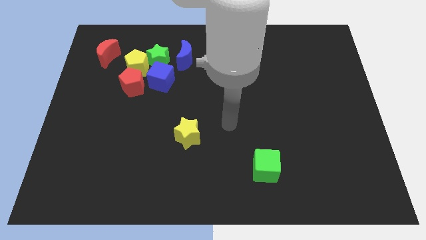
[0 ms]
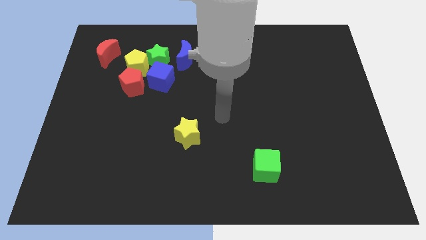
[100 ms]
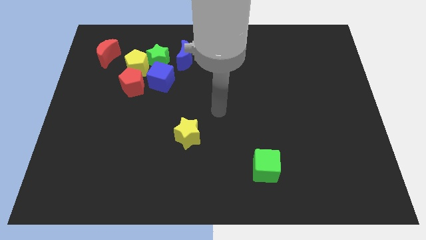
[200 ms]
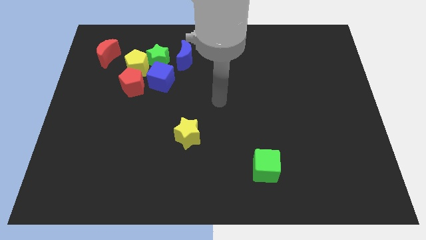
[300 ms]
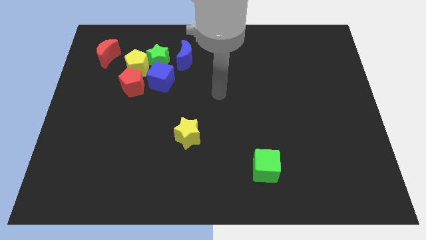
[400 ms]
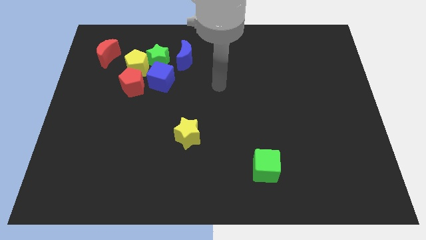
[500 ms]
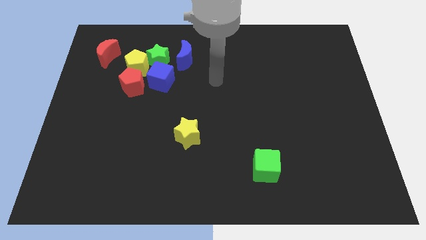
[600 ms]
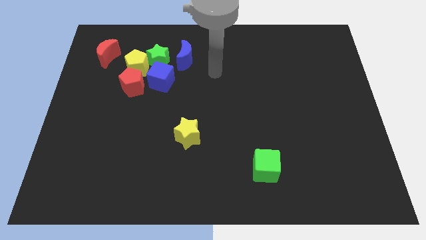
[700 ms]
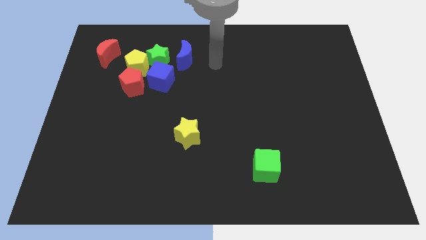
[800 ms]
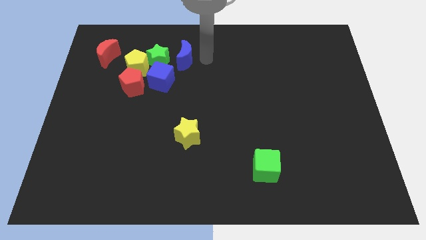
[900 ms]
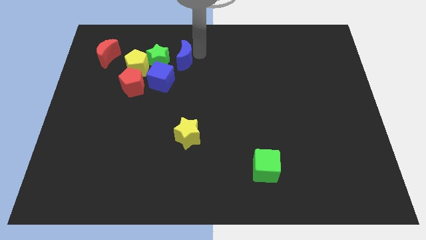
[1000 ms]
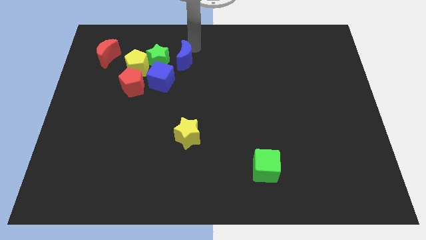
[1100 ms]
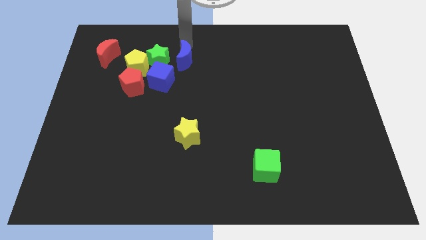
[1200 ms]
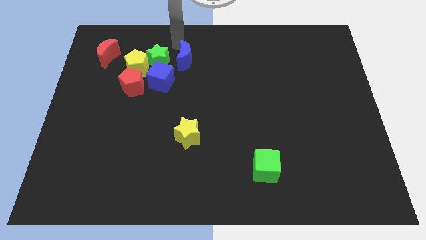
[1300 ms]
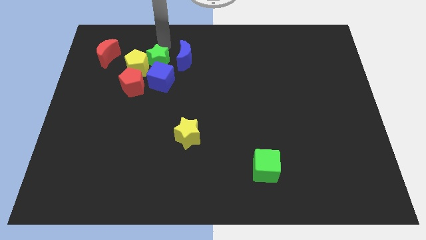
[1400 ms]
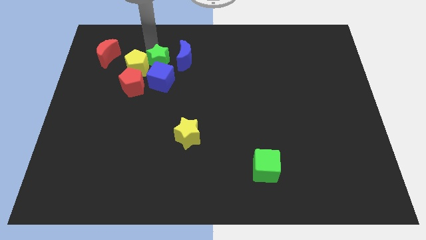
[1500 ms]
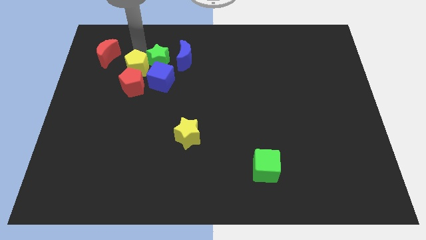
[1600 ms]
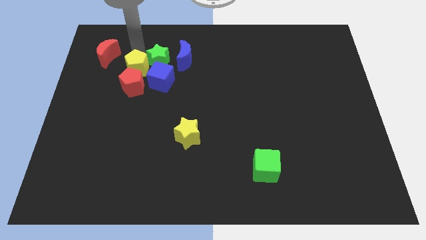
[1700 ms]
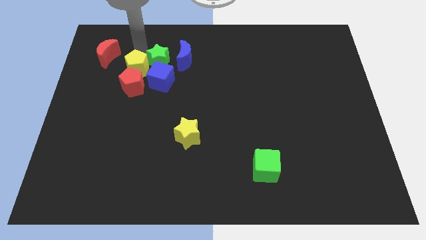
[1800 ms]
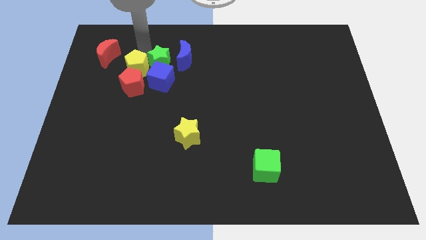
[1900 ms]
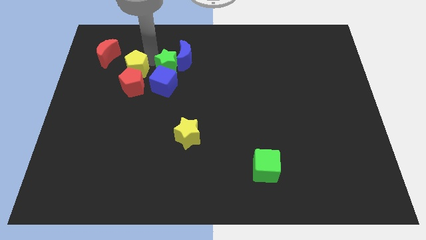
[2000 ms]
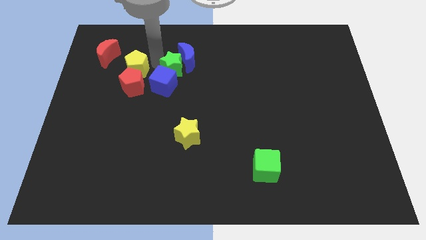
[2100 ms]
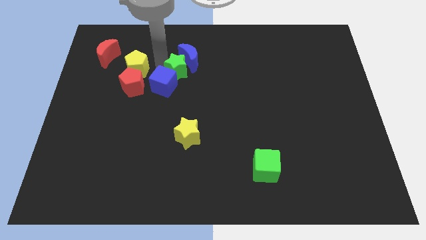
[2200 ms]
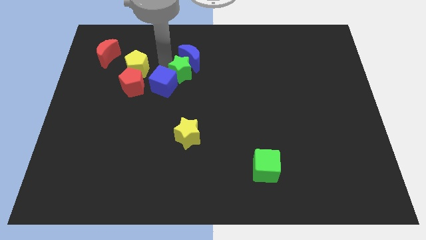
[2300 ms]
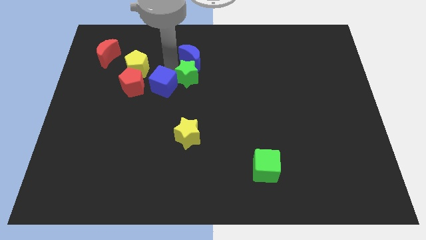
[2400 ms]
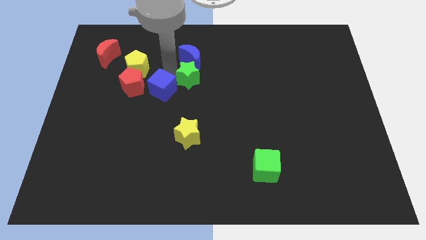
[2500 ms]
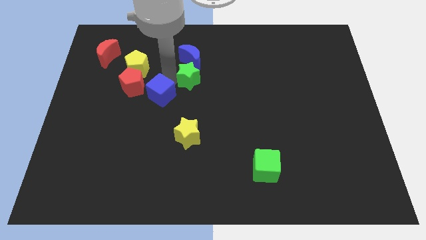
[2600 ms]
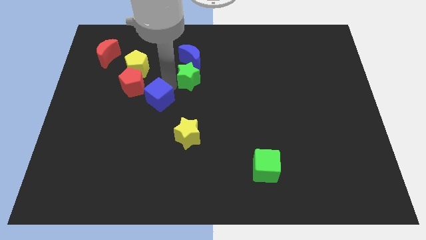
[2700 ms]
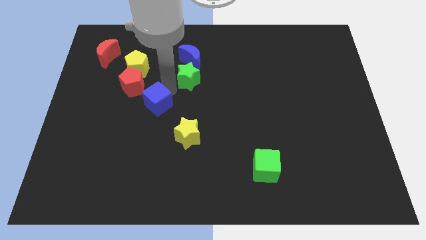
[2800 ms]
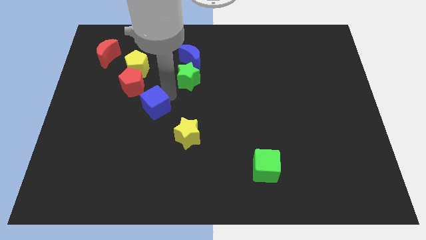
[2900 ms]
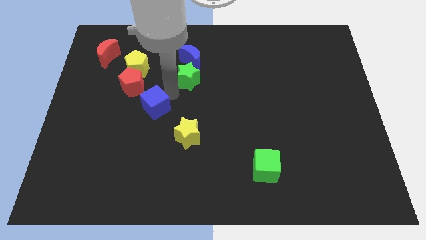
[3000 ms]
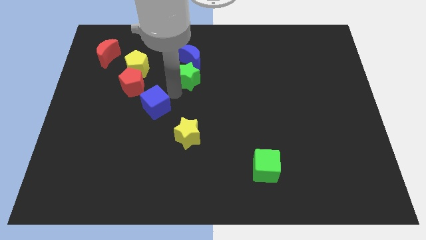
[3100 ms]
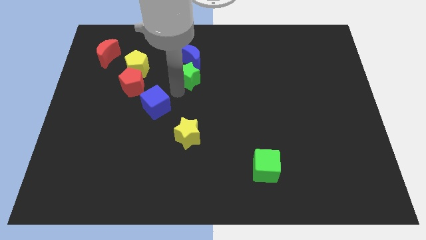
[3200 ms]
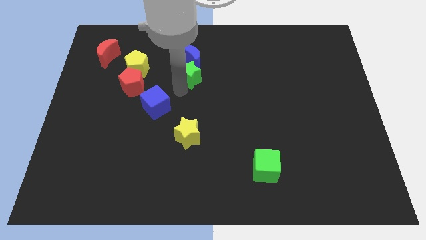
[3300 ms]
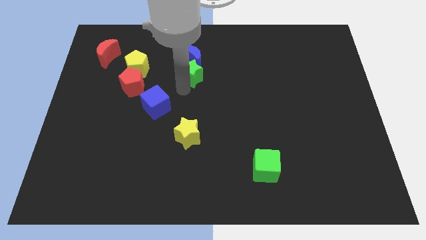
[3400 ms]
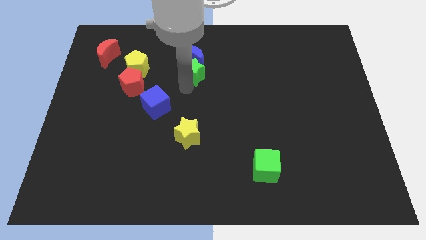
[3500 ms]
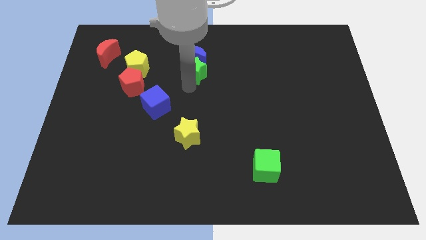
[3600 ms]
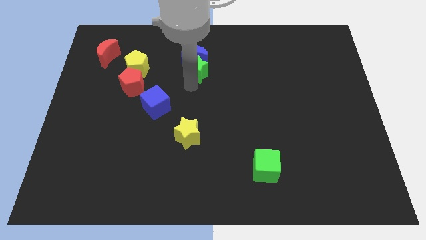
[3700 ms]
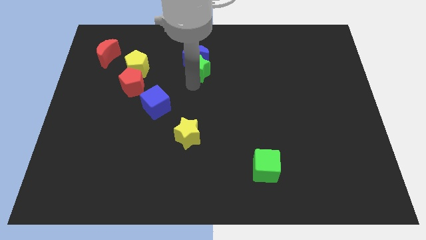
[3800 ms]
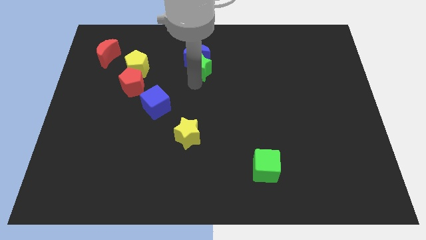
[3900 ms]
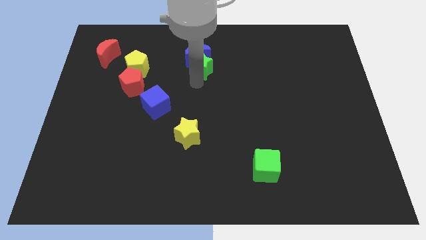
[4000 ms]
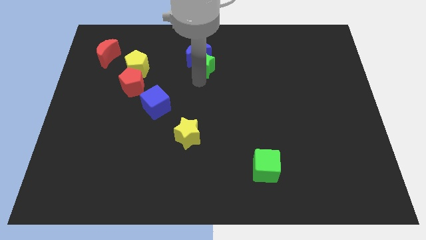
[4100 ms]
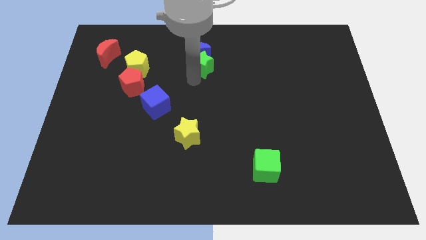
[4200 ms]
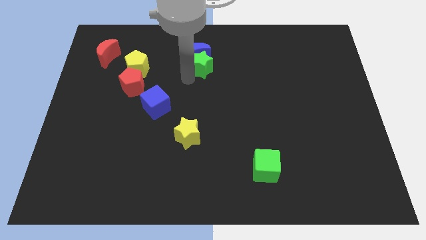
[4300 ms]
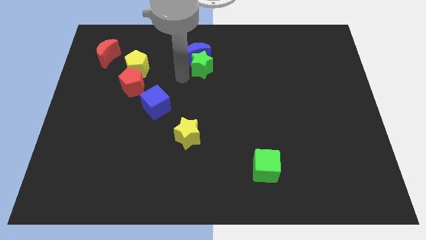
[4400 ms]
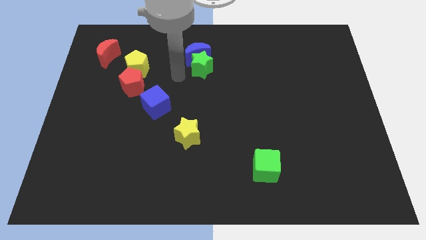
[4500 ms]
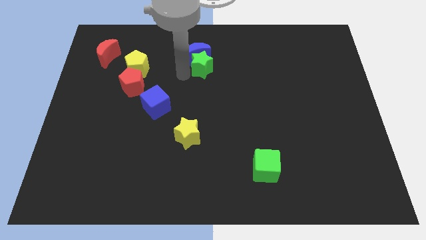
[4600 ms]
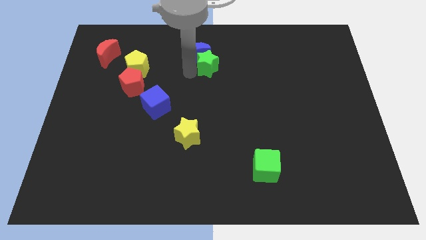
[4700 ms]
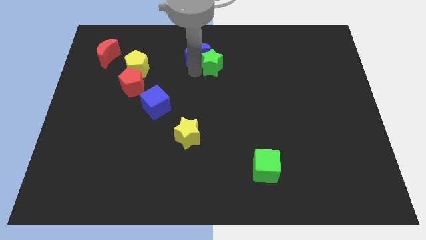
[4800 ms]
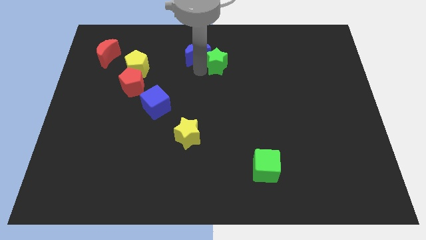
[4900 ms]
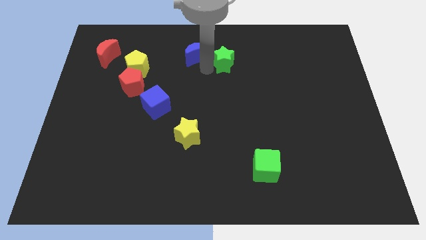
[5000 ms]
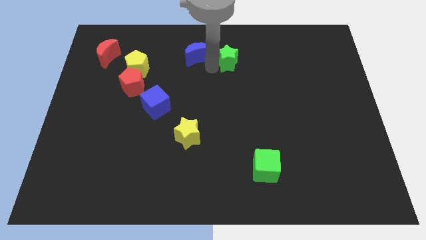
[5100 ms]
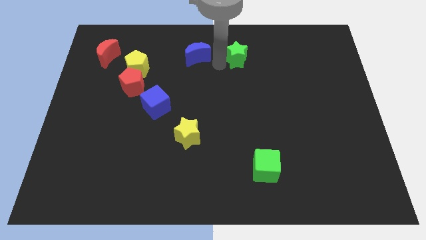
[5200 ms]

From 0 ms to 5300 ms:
slide the green star right

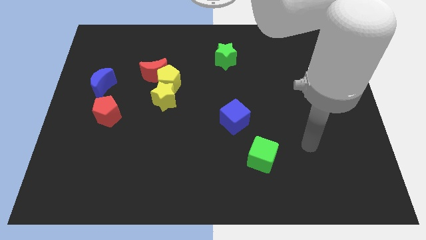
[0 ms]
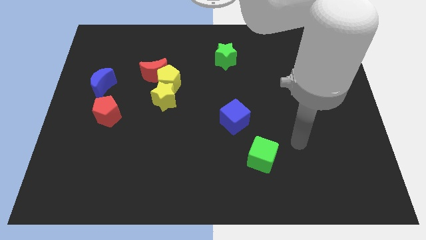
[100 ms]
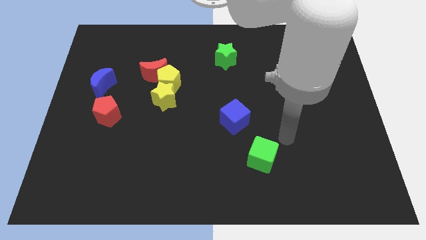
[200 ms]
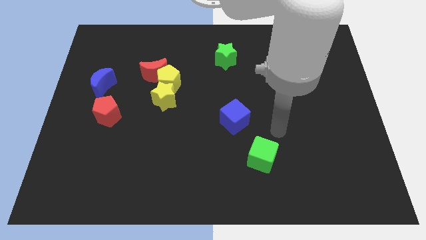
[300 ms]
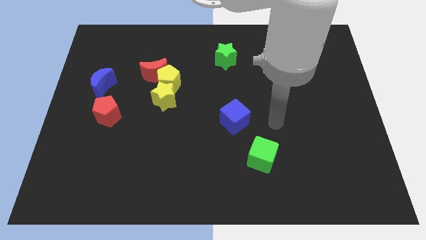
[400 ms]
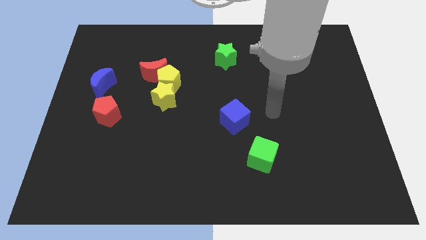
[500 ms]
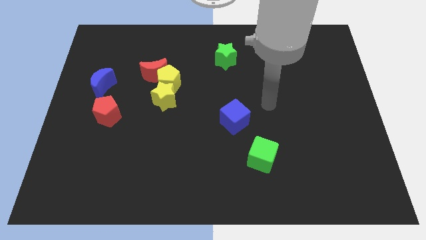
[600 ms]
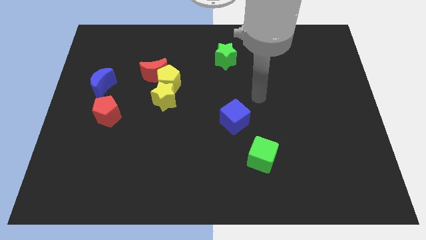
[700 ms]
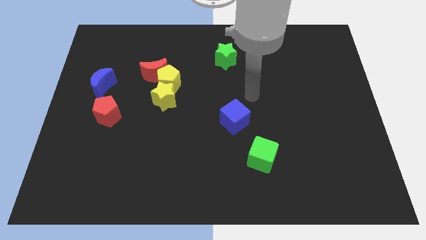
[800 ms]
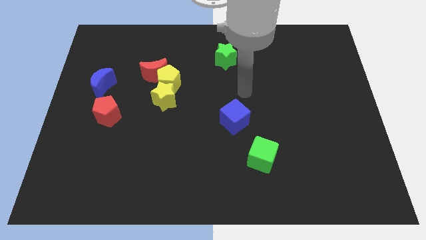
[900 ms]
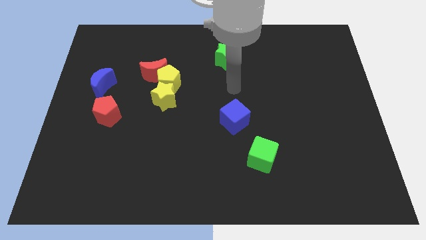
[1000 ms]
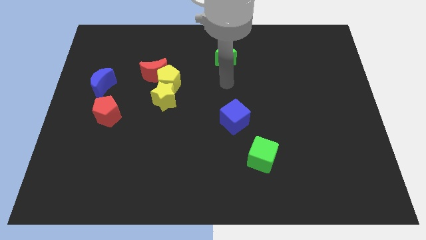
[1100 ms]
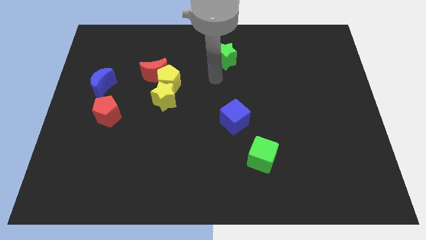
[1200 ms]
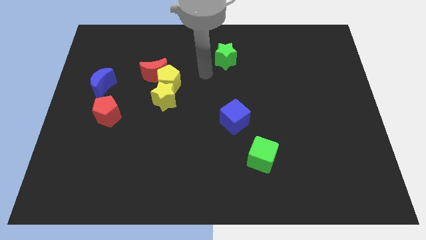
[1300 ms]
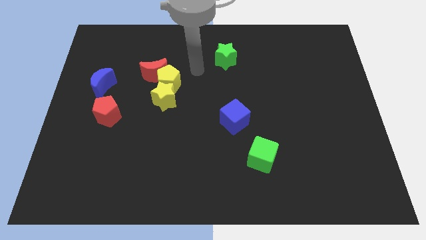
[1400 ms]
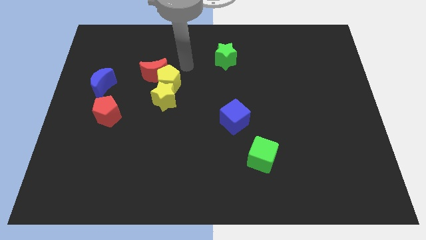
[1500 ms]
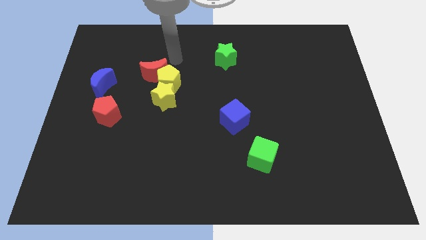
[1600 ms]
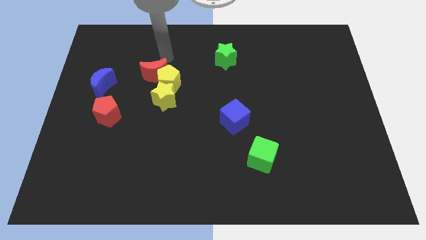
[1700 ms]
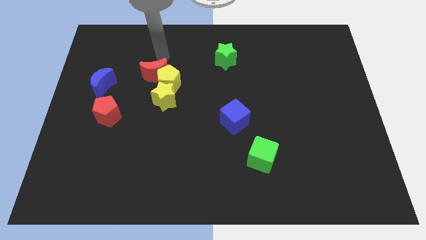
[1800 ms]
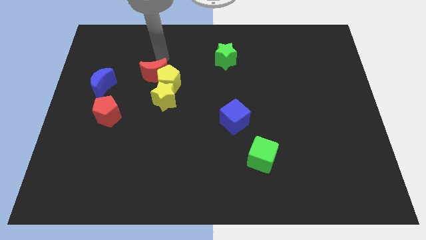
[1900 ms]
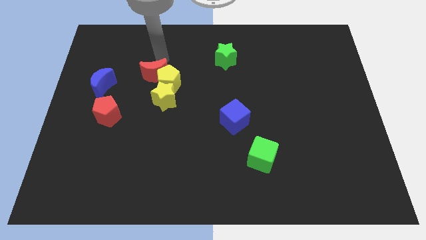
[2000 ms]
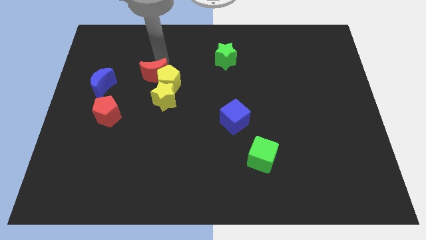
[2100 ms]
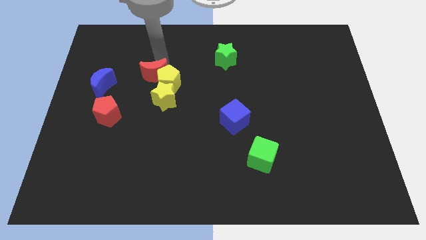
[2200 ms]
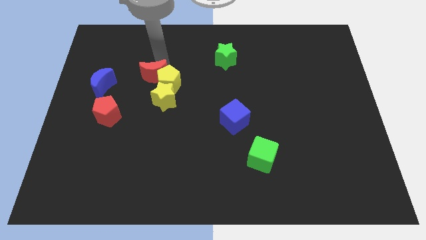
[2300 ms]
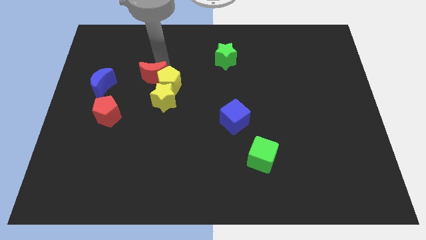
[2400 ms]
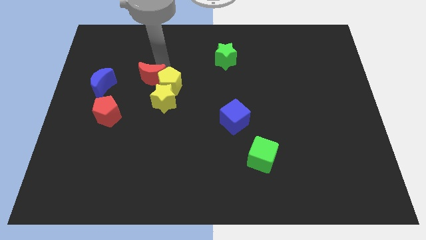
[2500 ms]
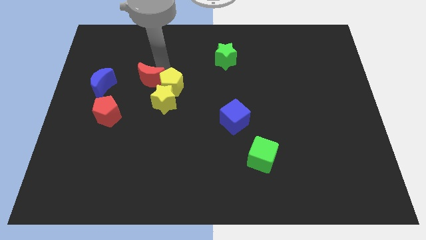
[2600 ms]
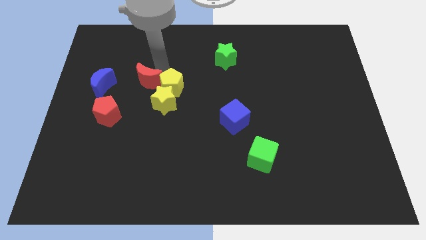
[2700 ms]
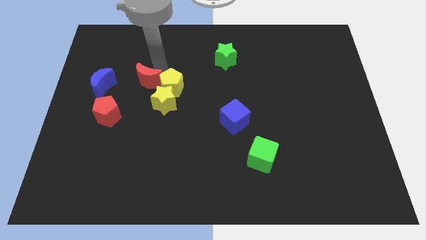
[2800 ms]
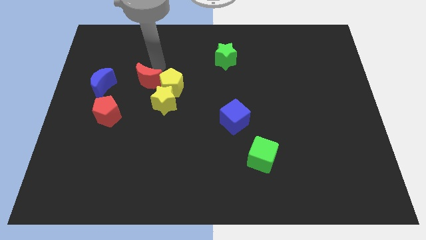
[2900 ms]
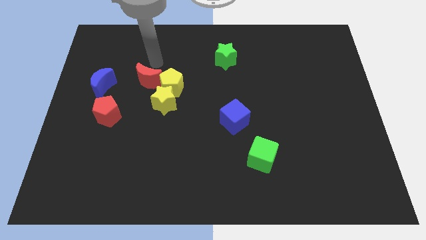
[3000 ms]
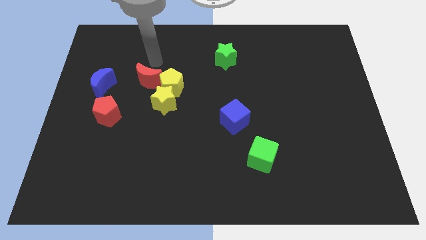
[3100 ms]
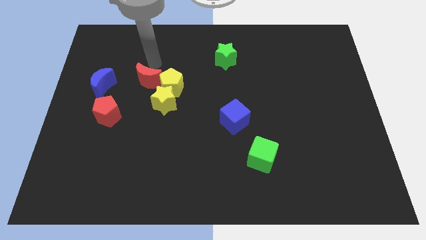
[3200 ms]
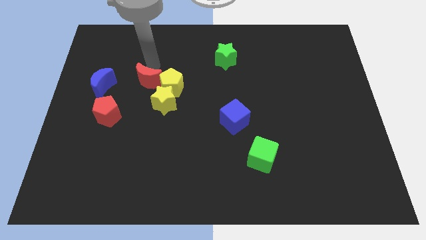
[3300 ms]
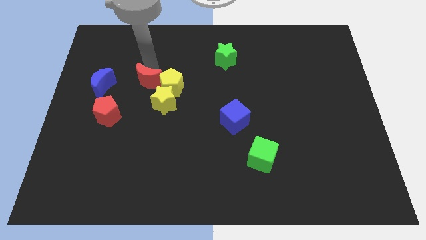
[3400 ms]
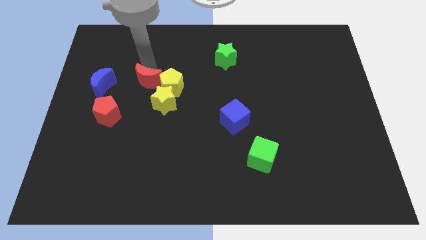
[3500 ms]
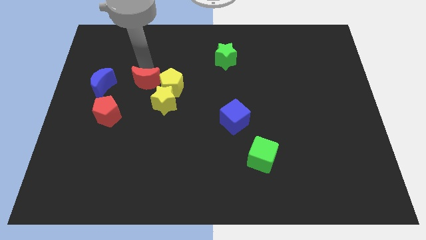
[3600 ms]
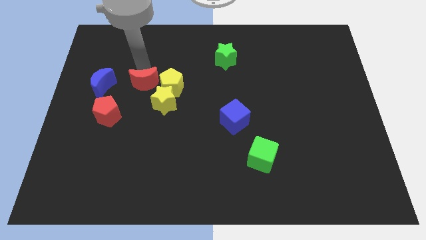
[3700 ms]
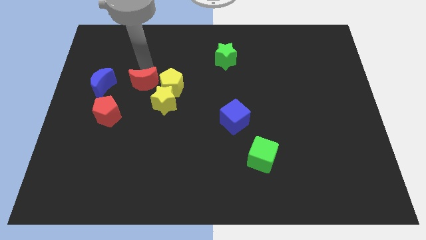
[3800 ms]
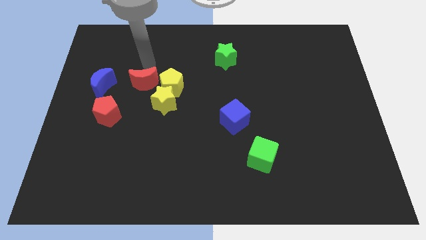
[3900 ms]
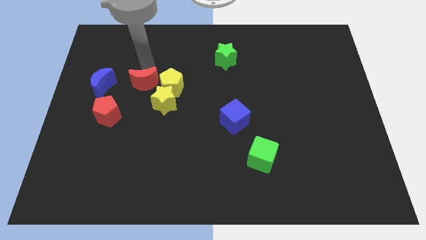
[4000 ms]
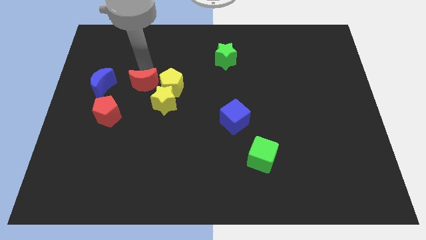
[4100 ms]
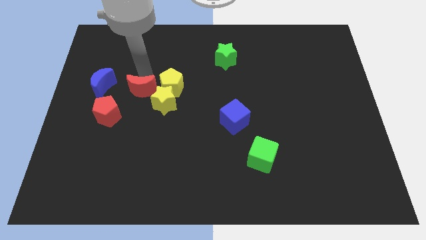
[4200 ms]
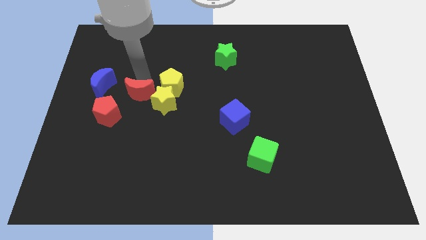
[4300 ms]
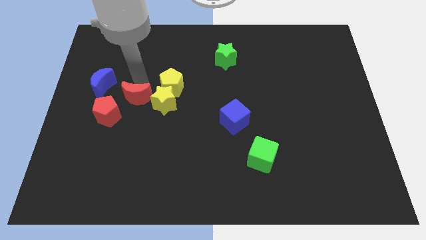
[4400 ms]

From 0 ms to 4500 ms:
move the red moon a little downwards
